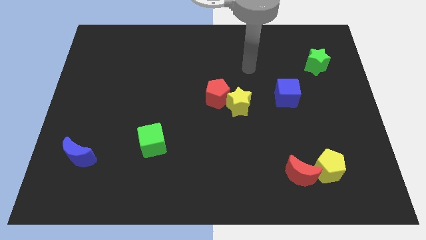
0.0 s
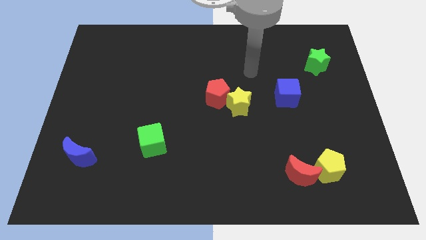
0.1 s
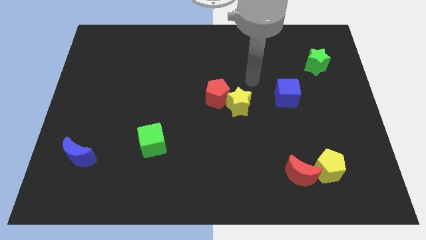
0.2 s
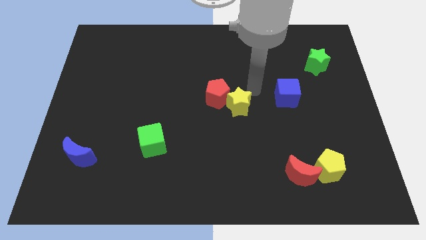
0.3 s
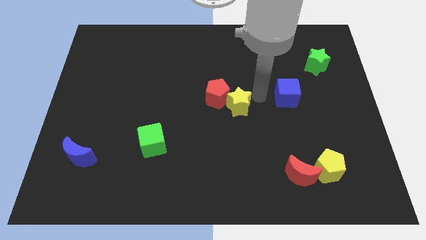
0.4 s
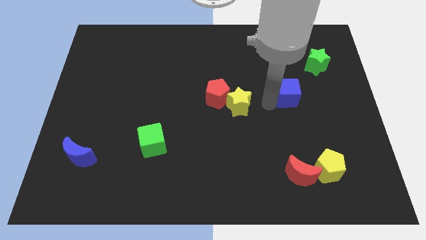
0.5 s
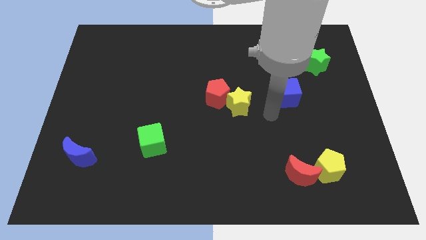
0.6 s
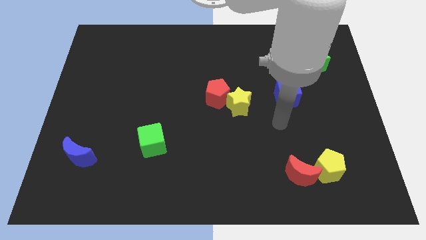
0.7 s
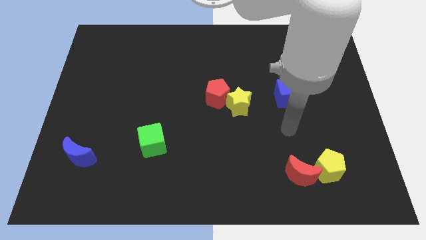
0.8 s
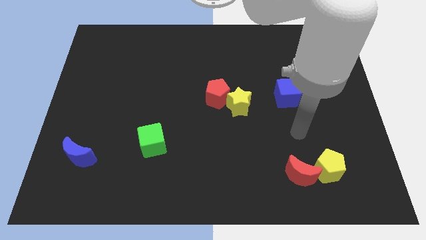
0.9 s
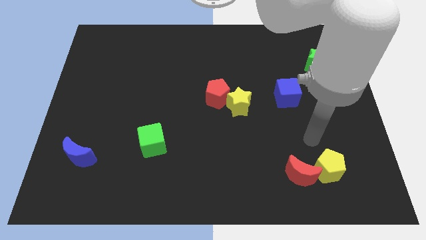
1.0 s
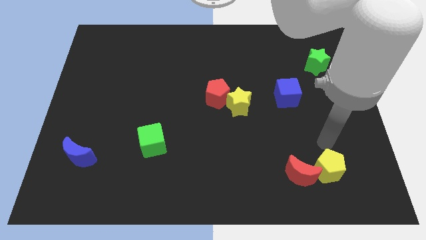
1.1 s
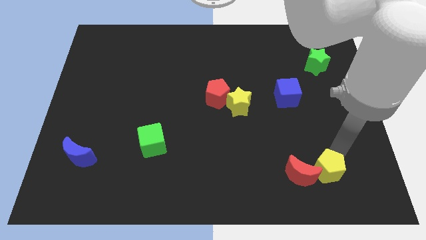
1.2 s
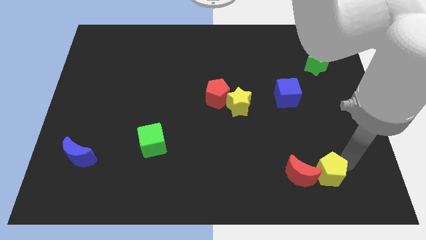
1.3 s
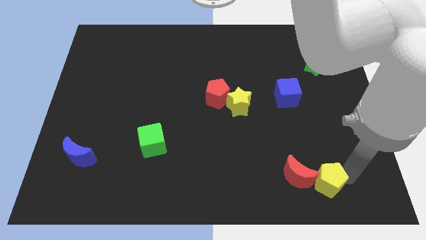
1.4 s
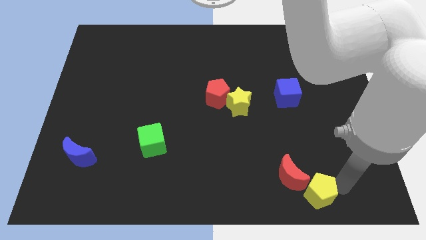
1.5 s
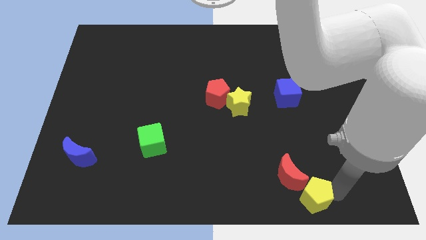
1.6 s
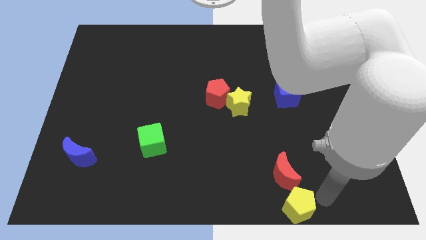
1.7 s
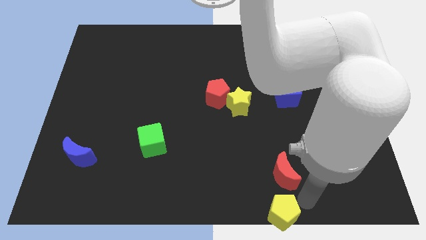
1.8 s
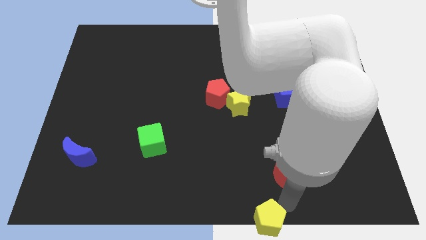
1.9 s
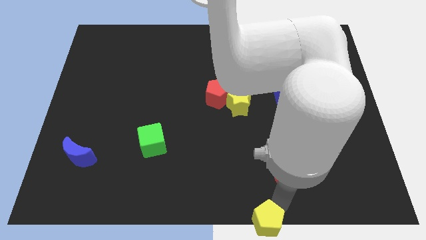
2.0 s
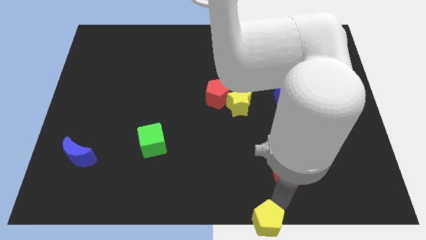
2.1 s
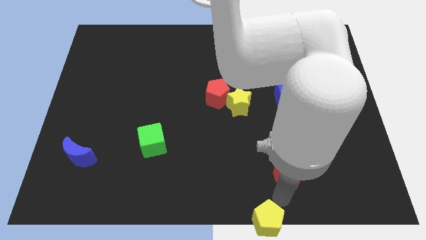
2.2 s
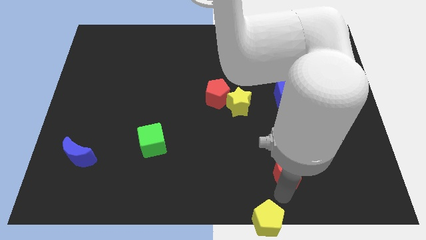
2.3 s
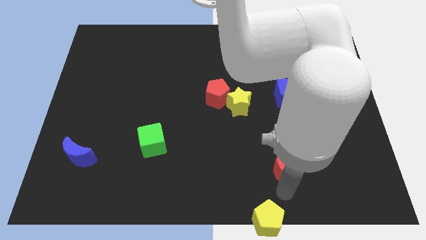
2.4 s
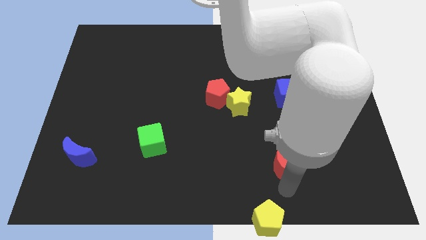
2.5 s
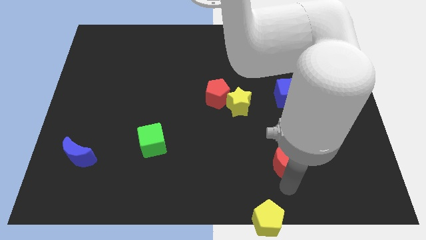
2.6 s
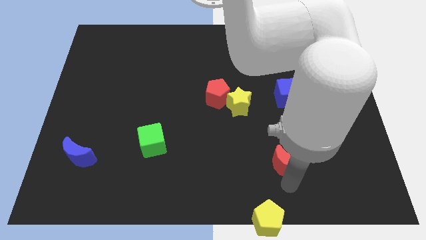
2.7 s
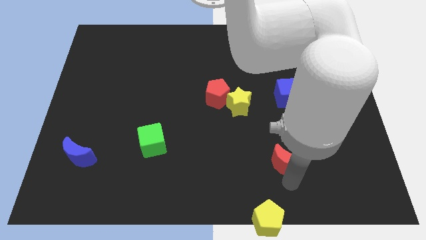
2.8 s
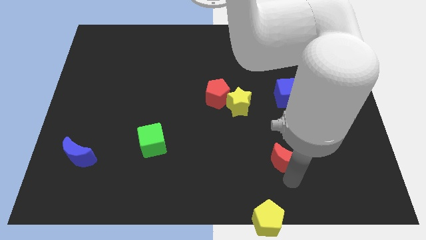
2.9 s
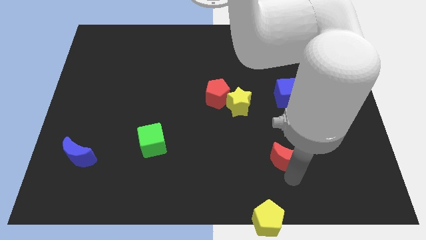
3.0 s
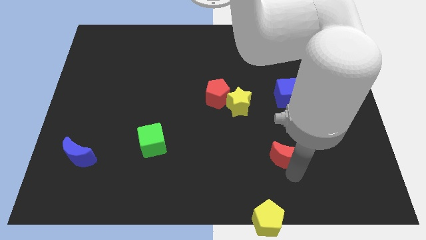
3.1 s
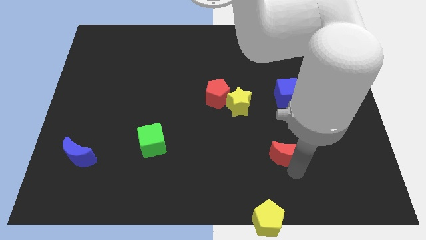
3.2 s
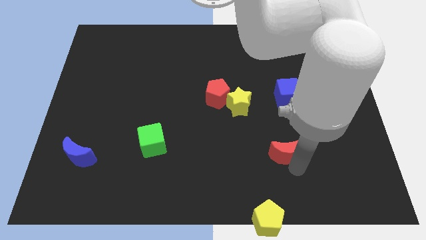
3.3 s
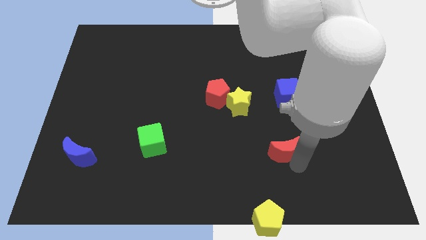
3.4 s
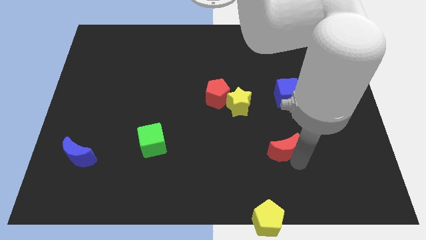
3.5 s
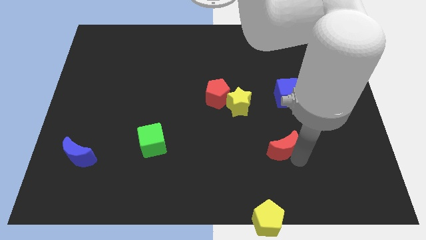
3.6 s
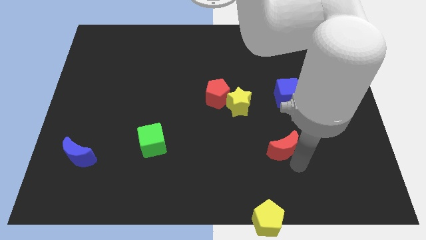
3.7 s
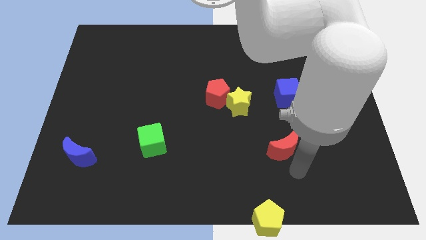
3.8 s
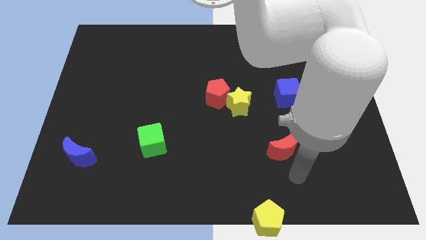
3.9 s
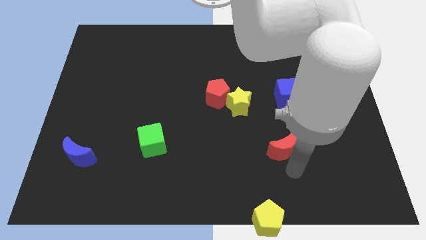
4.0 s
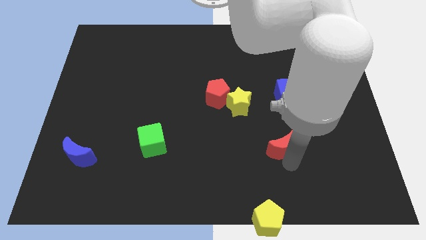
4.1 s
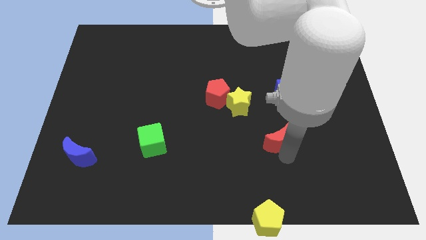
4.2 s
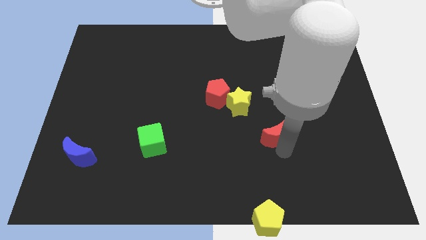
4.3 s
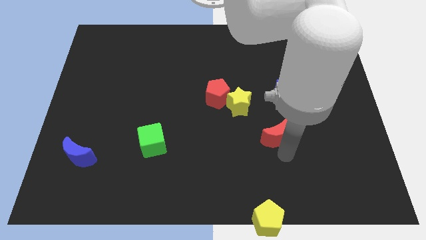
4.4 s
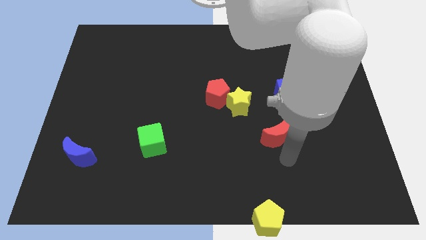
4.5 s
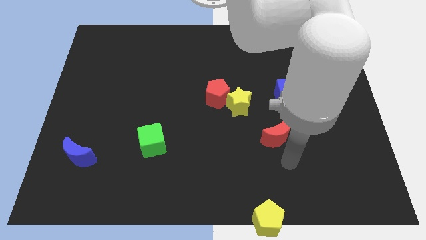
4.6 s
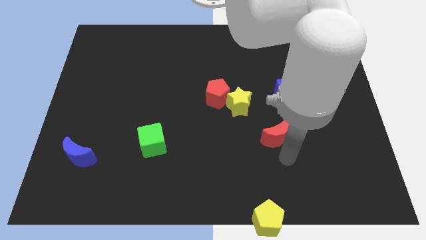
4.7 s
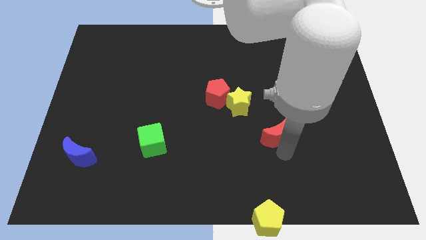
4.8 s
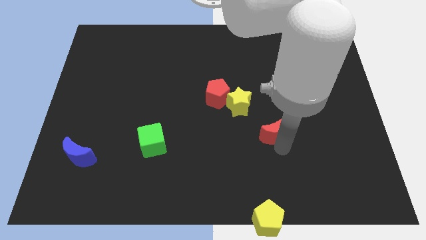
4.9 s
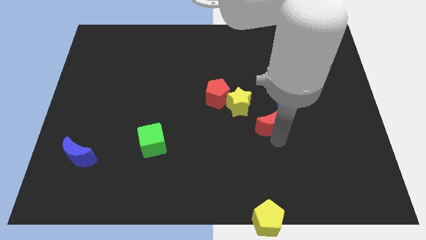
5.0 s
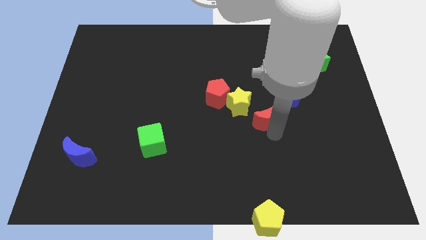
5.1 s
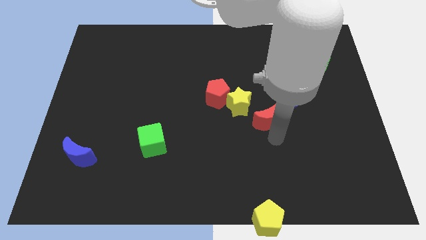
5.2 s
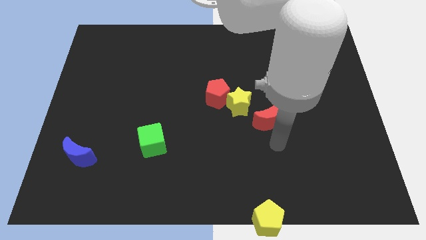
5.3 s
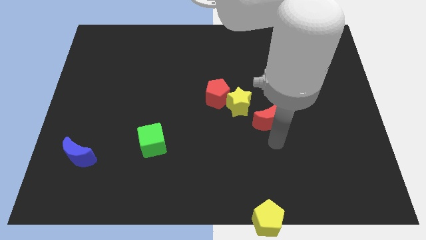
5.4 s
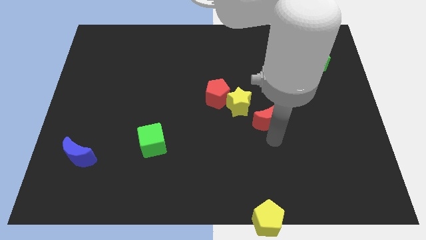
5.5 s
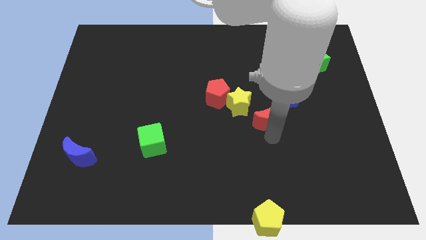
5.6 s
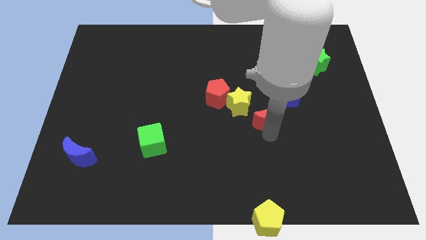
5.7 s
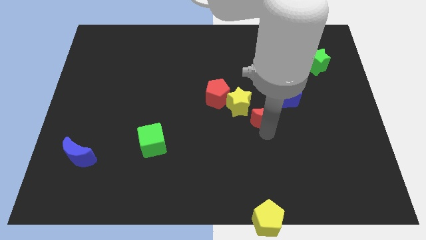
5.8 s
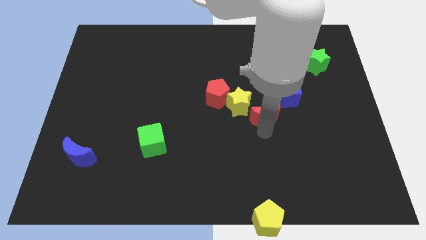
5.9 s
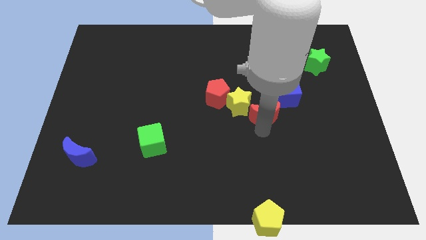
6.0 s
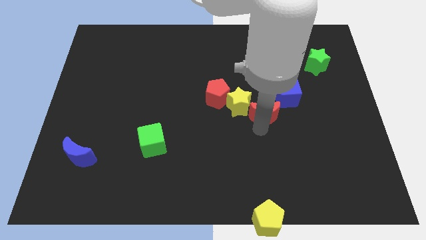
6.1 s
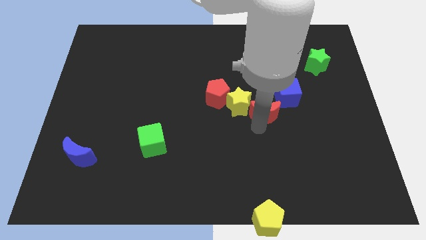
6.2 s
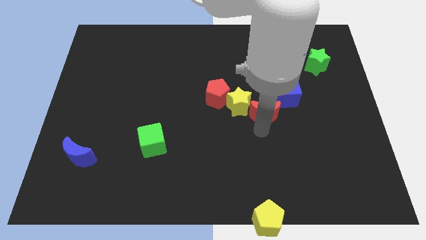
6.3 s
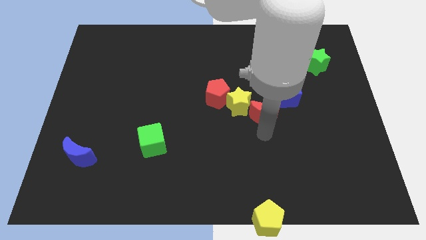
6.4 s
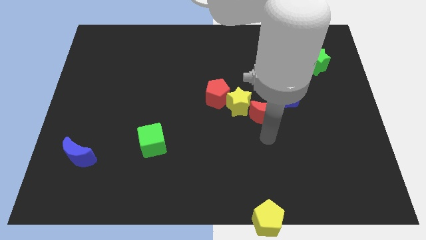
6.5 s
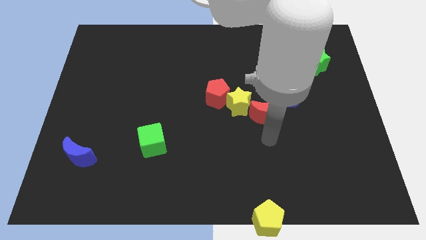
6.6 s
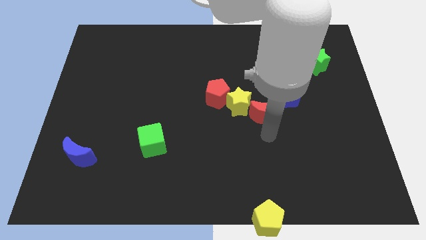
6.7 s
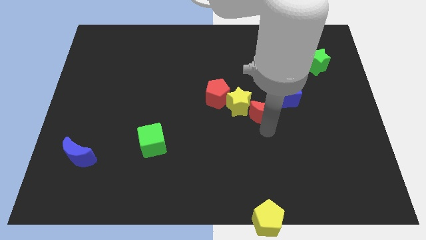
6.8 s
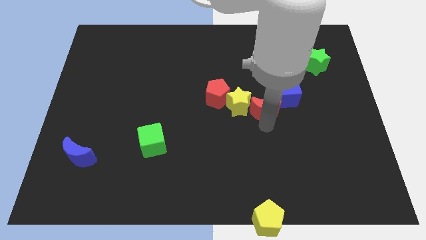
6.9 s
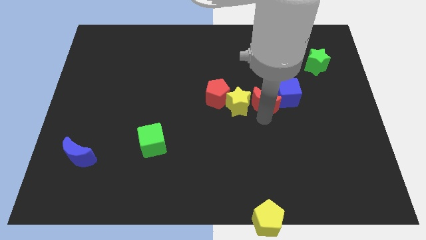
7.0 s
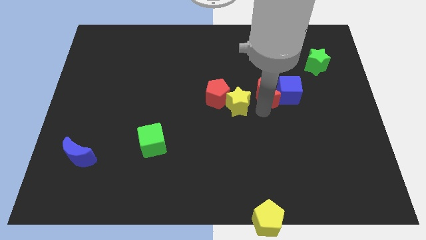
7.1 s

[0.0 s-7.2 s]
push the red moon upwards

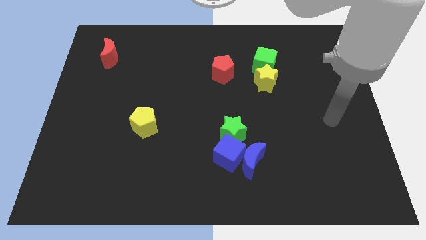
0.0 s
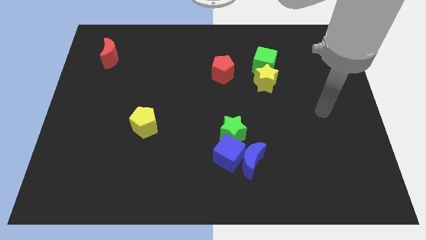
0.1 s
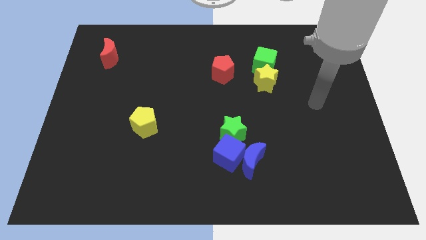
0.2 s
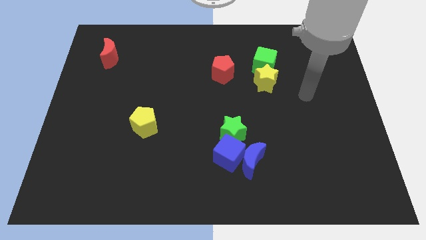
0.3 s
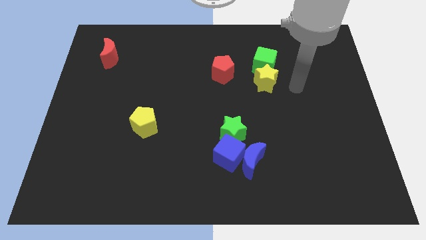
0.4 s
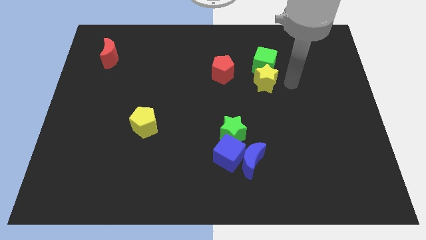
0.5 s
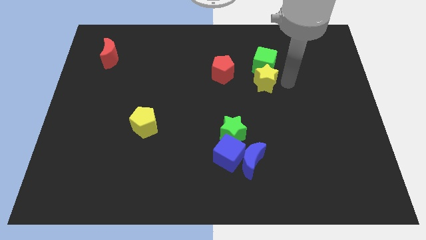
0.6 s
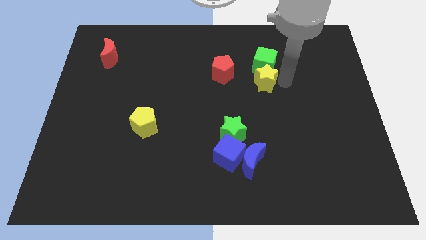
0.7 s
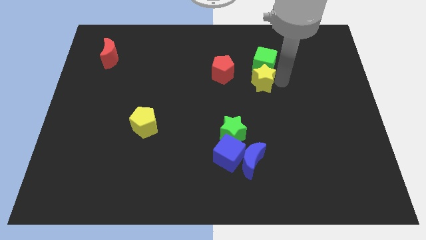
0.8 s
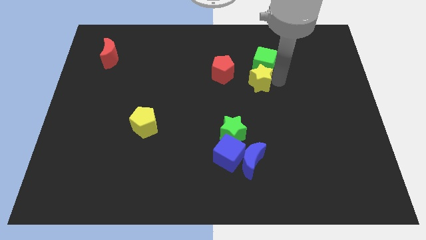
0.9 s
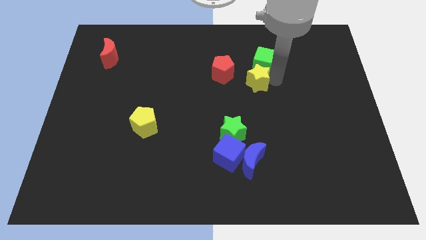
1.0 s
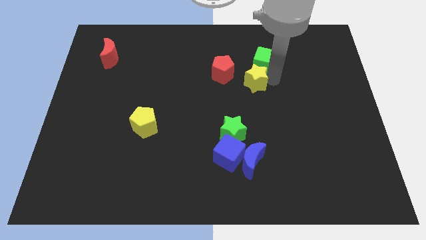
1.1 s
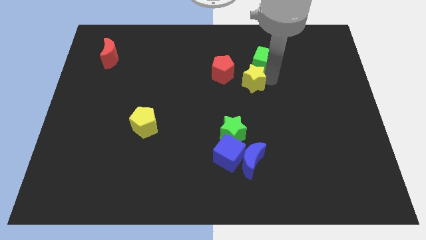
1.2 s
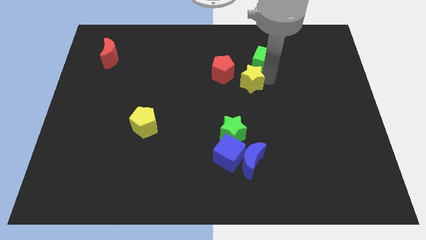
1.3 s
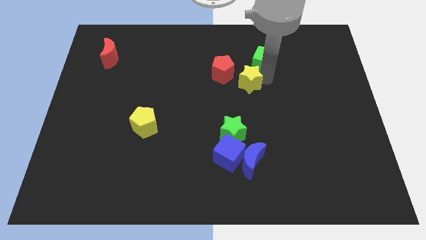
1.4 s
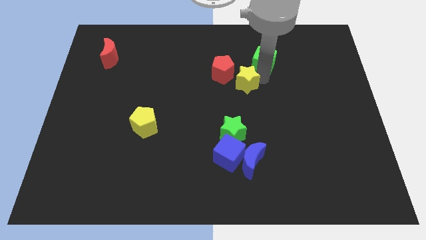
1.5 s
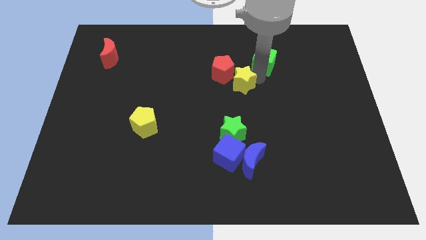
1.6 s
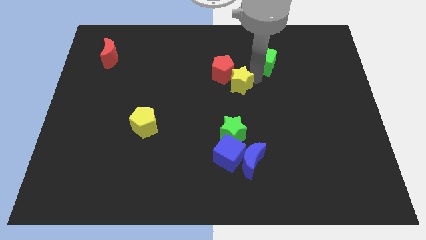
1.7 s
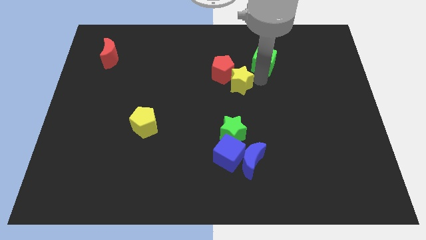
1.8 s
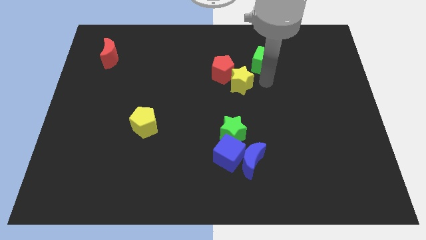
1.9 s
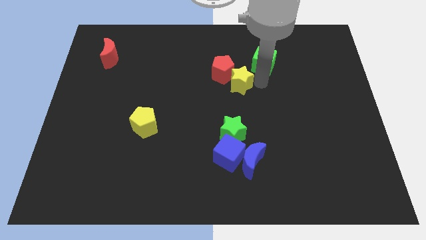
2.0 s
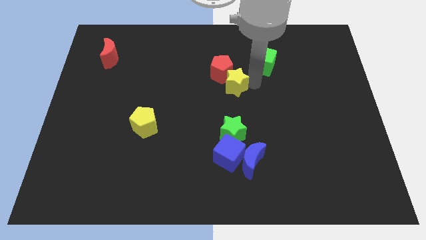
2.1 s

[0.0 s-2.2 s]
slightly push the yellow star left
